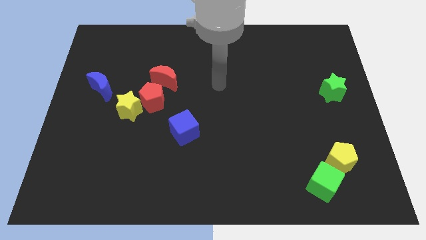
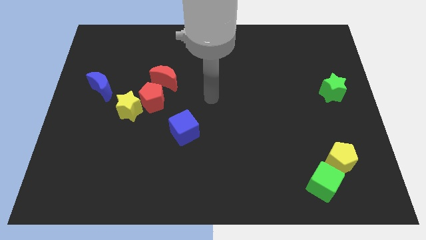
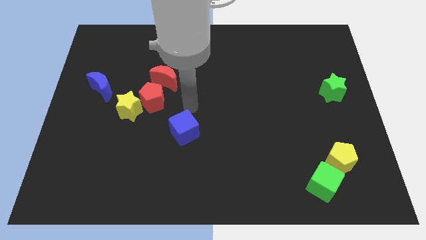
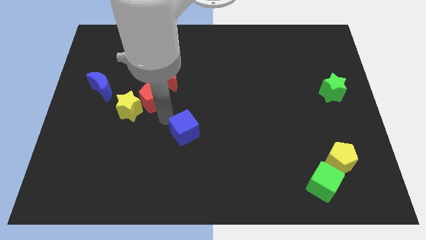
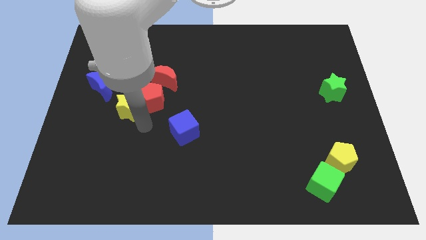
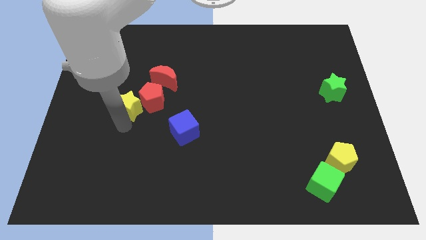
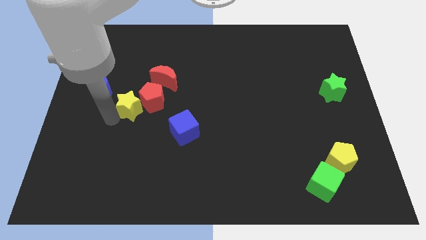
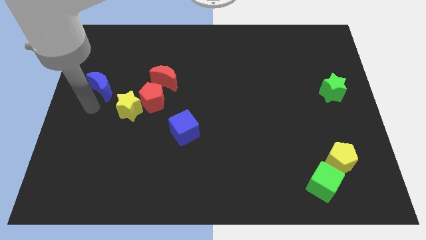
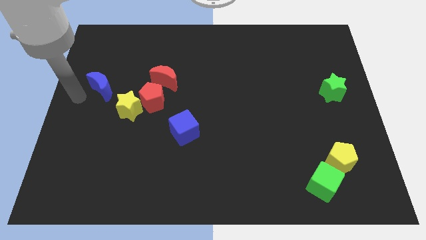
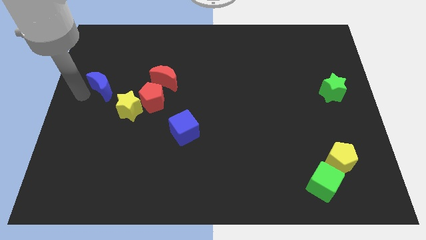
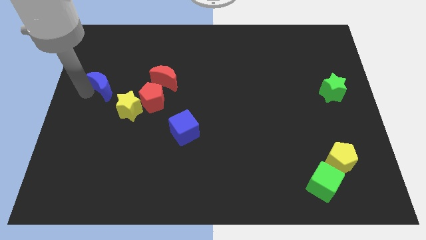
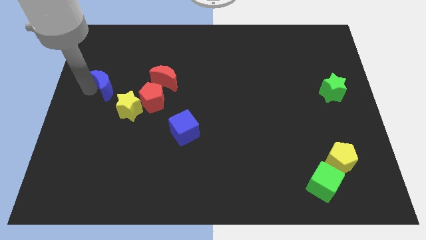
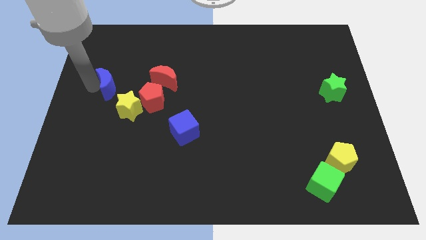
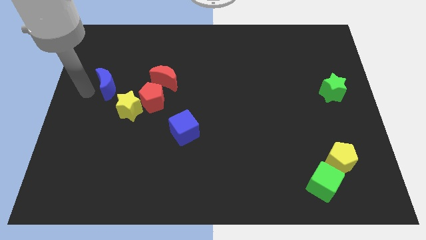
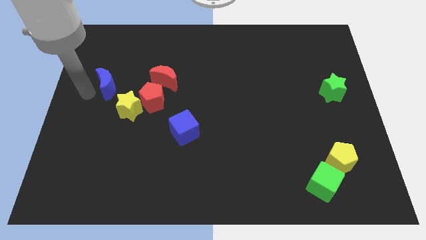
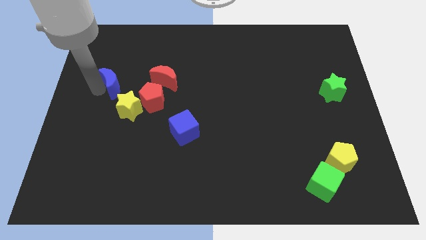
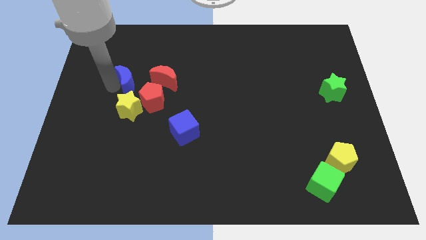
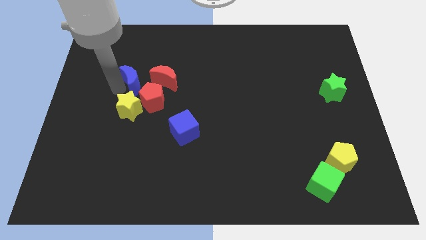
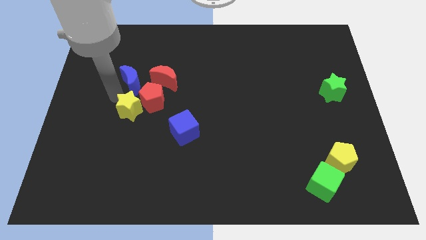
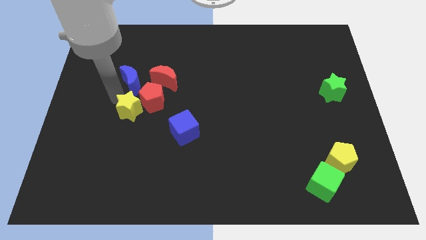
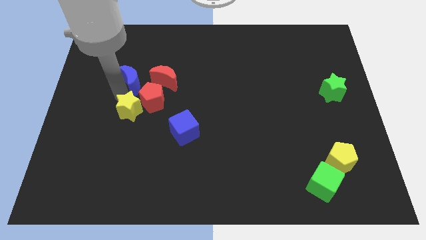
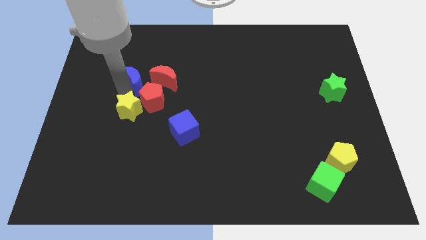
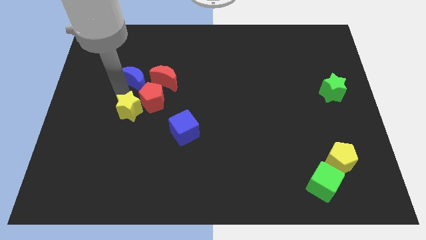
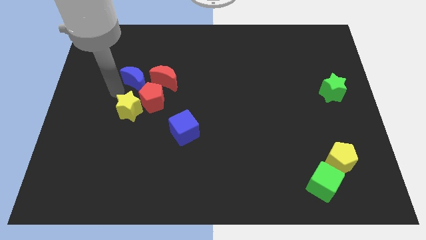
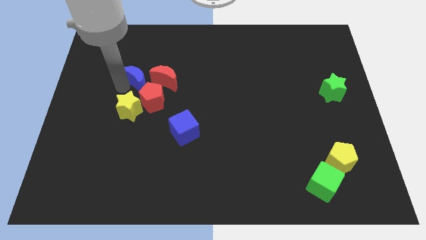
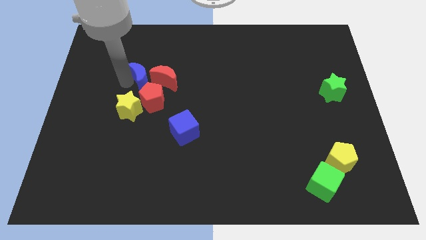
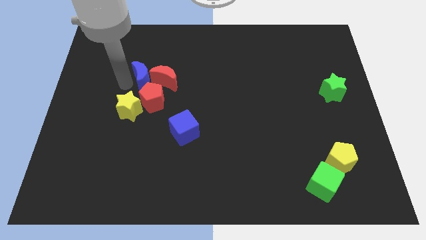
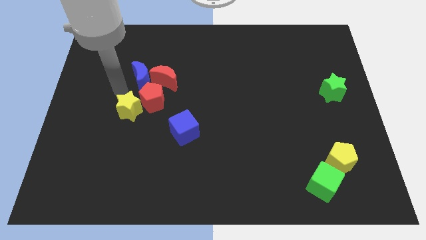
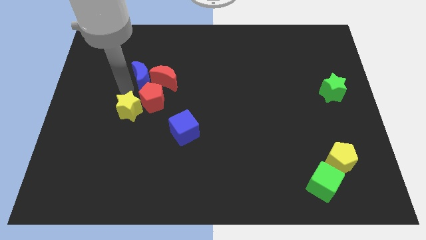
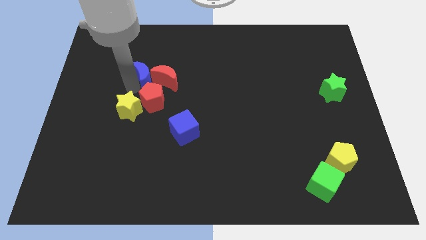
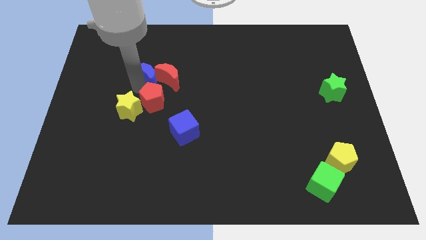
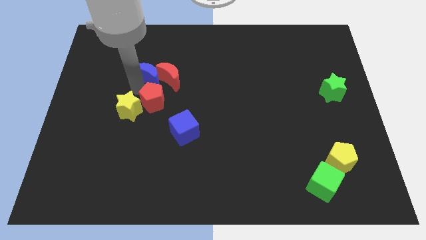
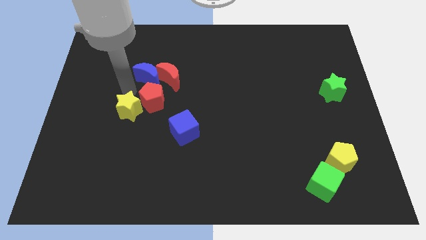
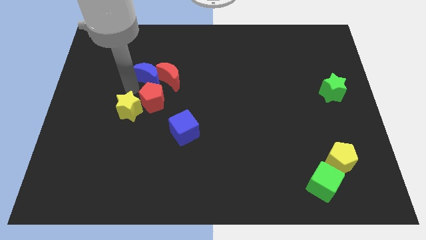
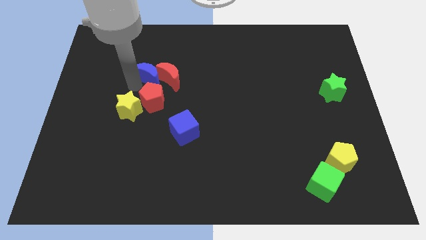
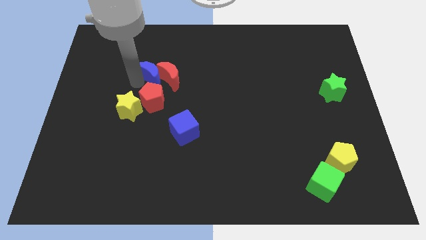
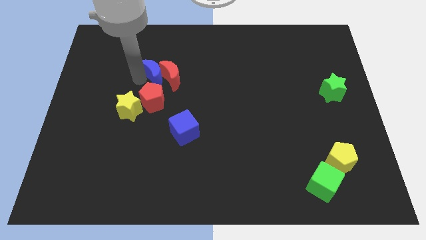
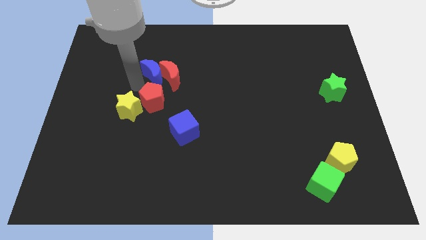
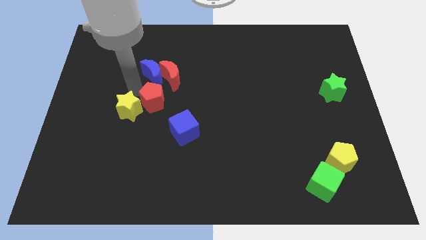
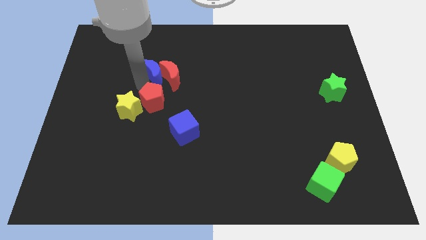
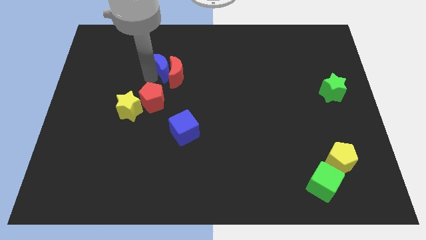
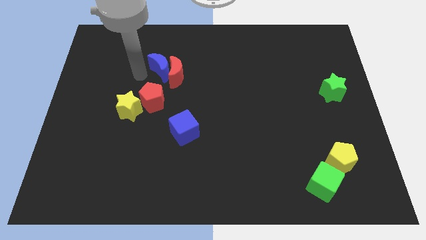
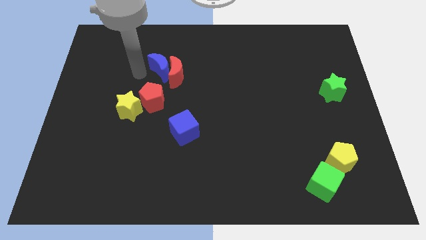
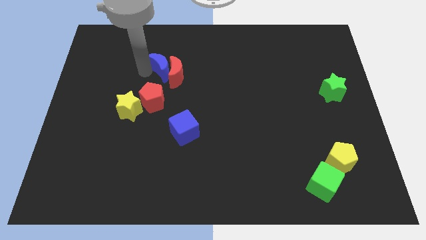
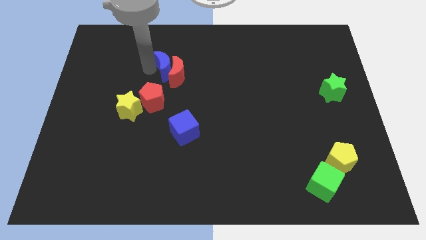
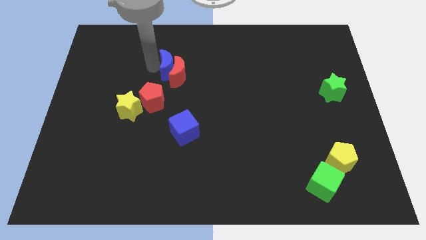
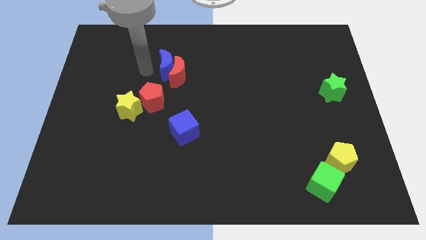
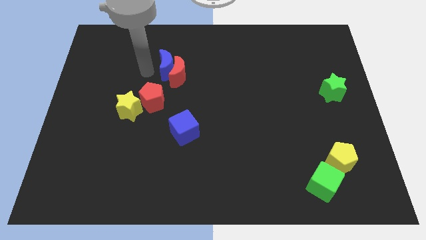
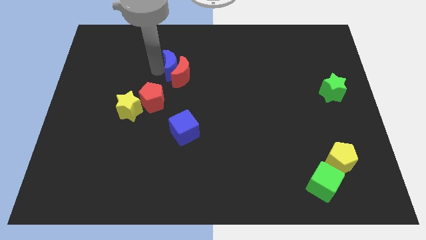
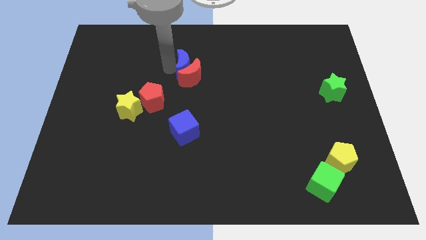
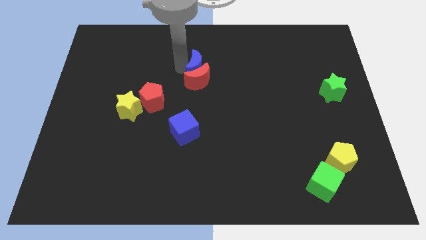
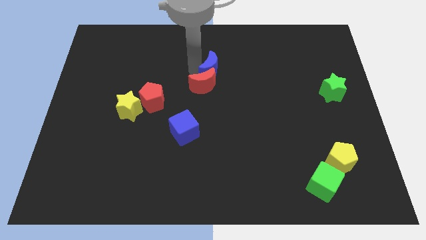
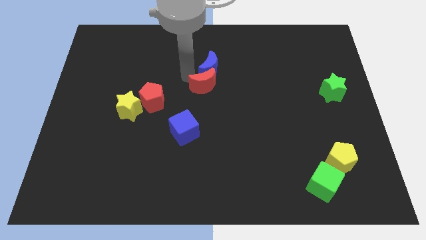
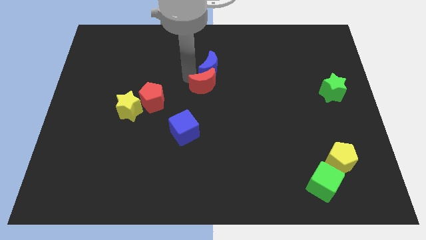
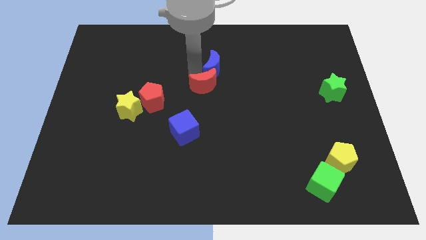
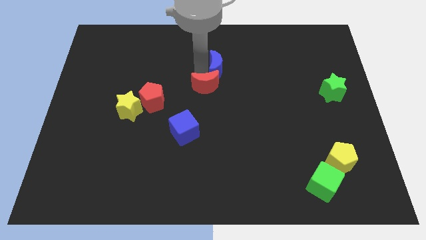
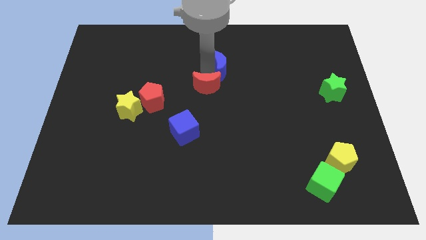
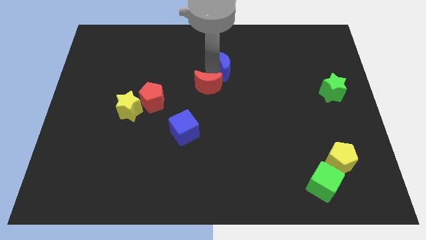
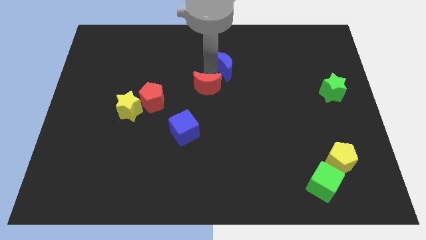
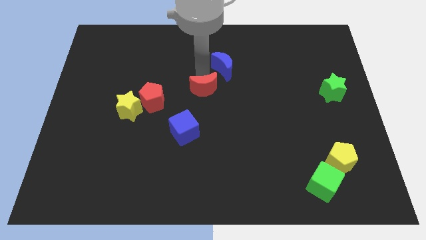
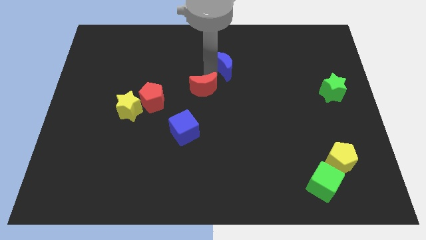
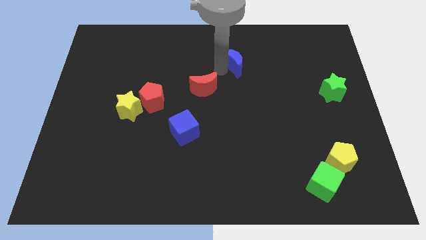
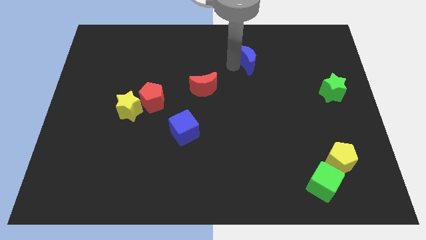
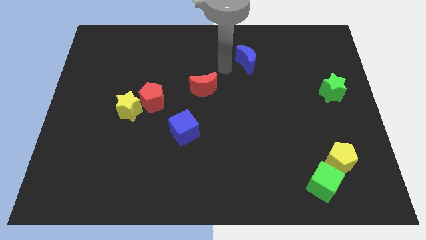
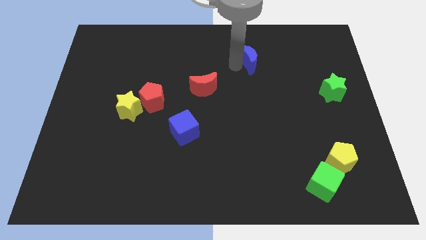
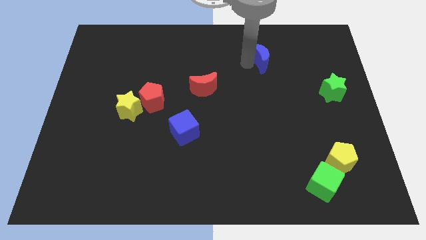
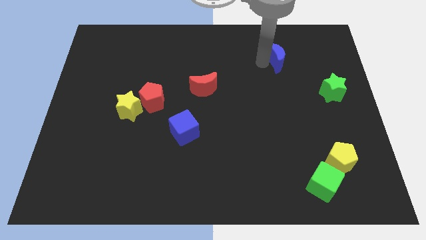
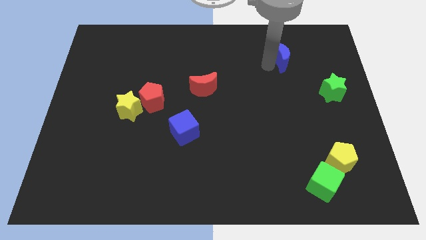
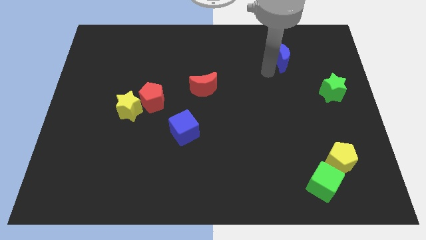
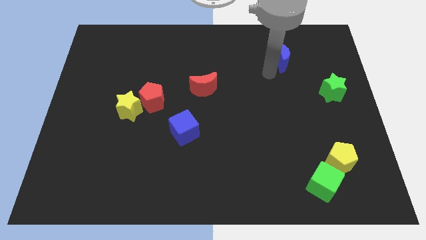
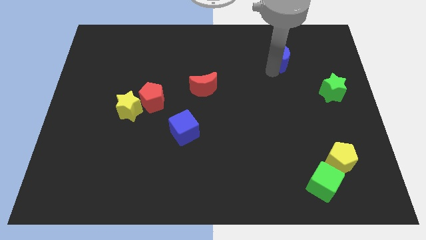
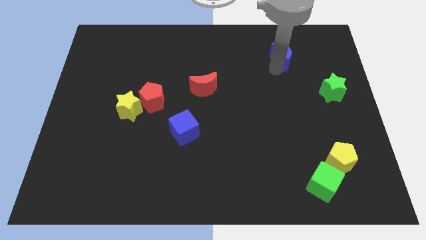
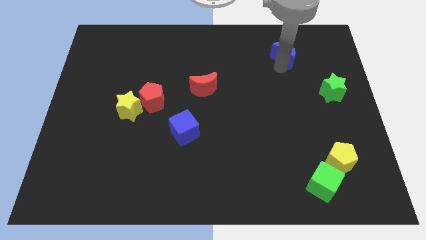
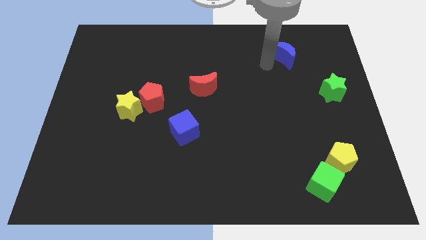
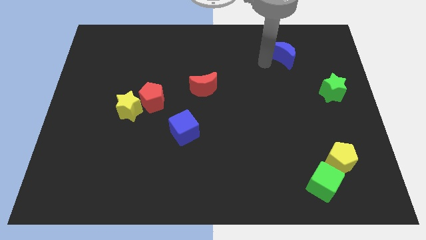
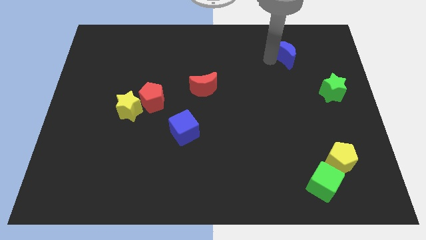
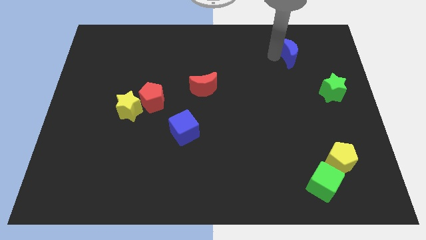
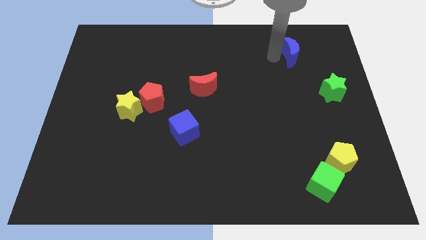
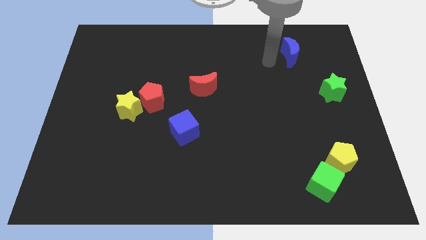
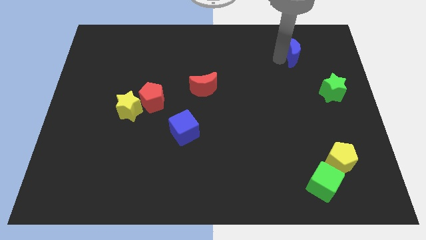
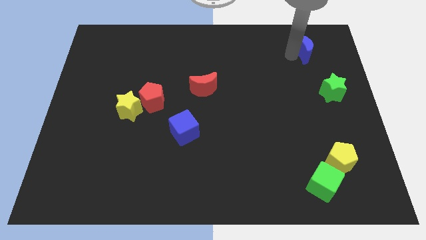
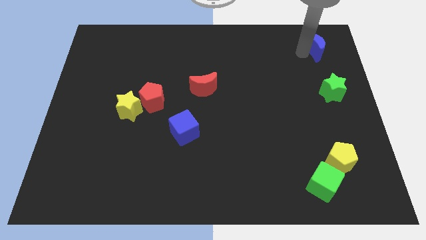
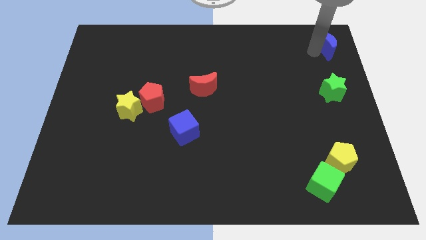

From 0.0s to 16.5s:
put the blue moon to the top right
